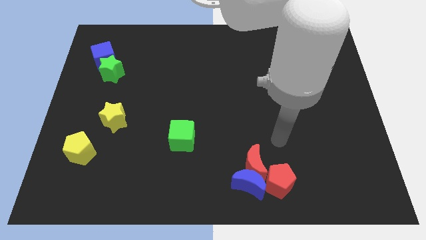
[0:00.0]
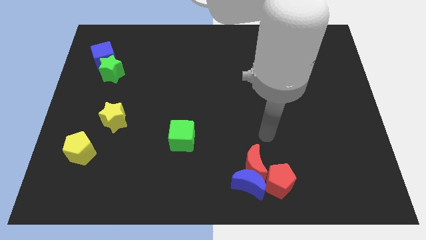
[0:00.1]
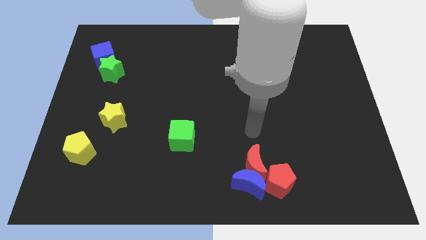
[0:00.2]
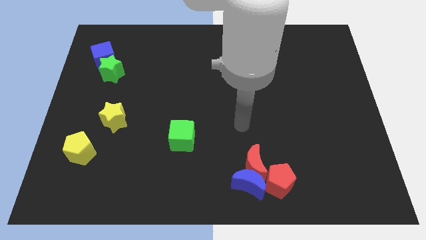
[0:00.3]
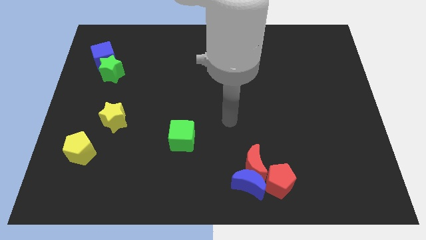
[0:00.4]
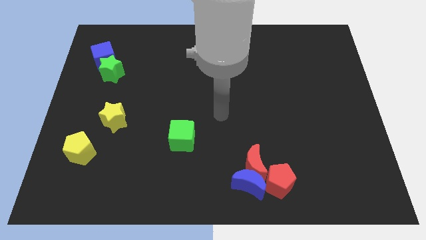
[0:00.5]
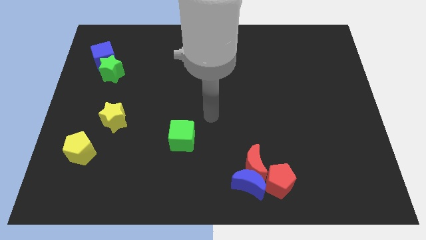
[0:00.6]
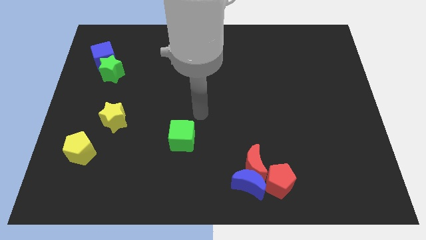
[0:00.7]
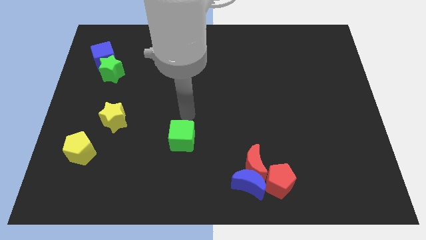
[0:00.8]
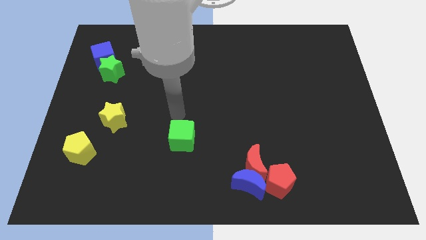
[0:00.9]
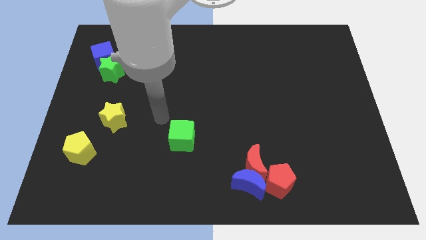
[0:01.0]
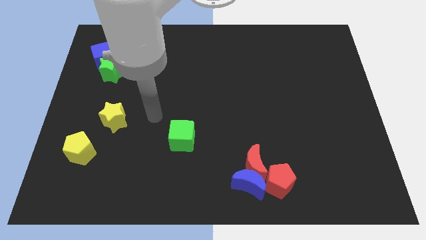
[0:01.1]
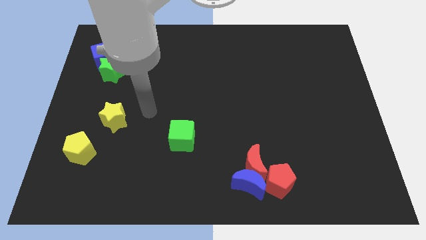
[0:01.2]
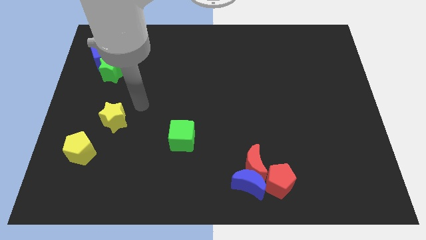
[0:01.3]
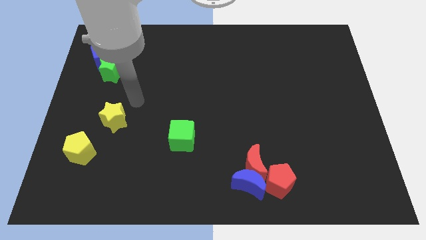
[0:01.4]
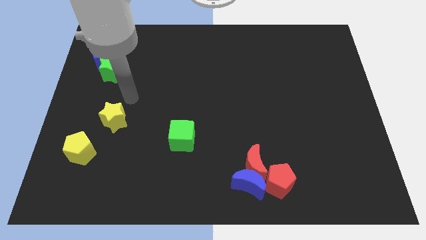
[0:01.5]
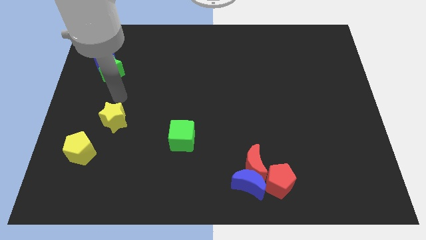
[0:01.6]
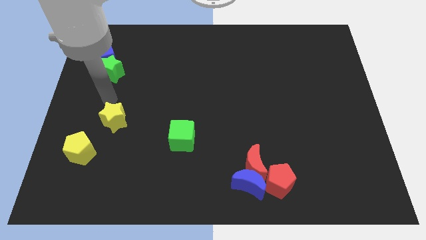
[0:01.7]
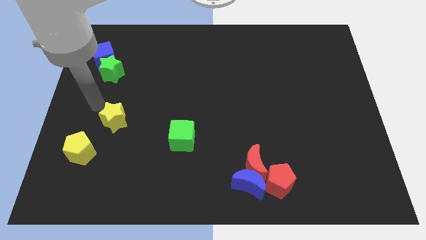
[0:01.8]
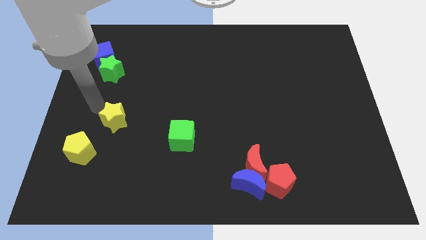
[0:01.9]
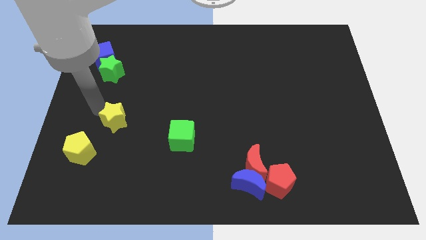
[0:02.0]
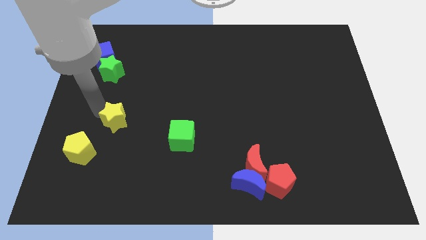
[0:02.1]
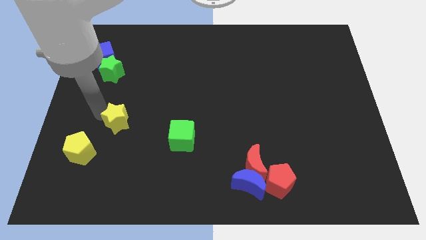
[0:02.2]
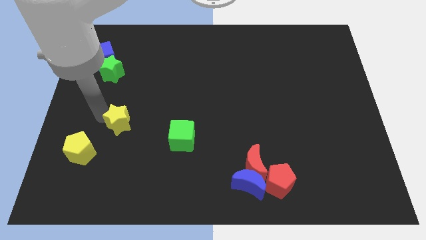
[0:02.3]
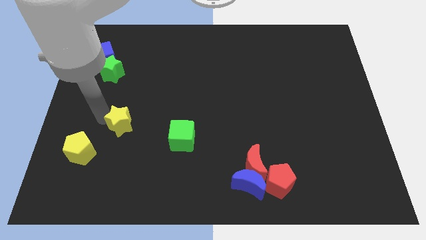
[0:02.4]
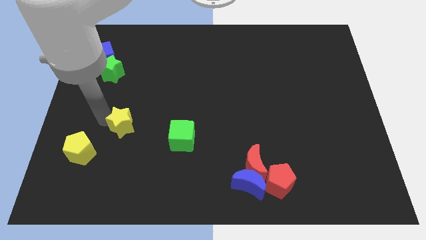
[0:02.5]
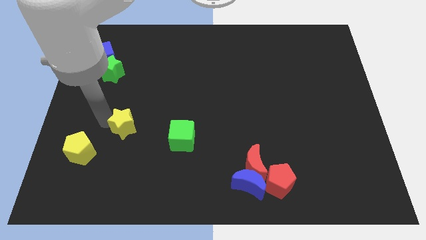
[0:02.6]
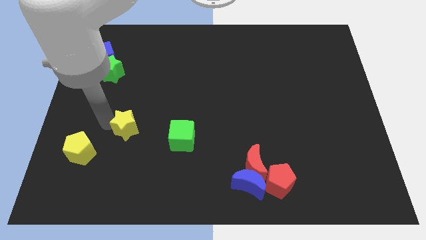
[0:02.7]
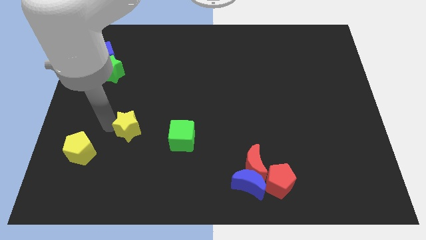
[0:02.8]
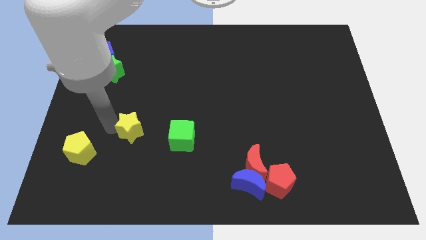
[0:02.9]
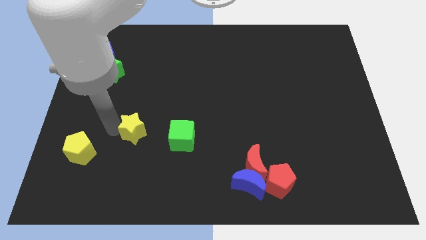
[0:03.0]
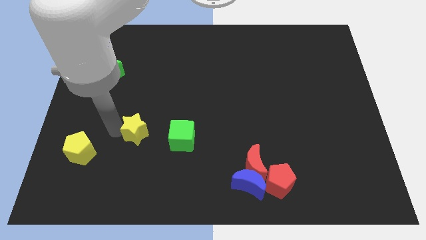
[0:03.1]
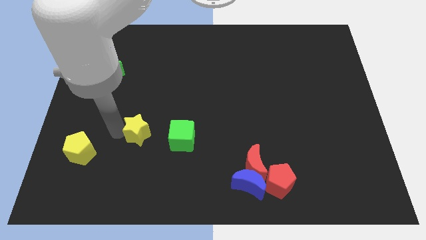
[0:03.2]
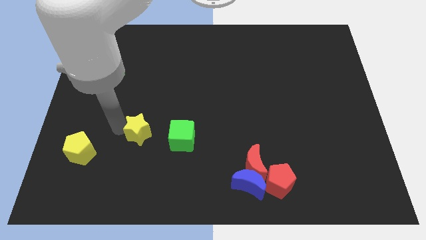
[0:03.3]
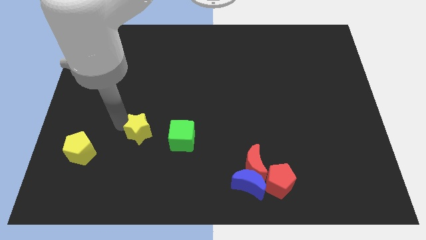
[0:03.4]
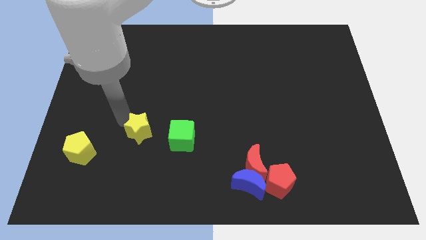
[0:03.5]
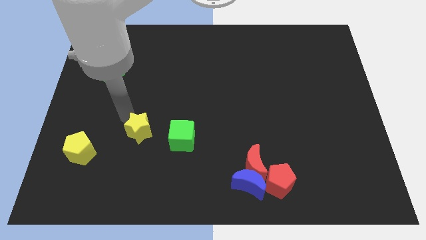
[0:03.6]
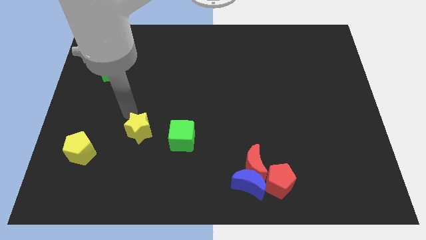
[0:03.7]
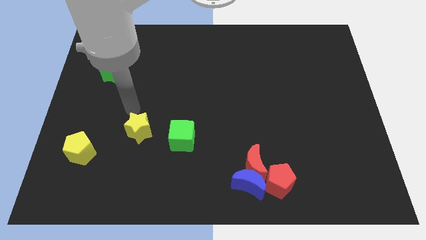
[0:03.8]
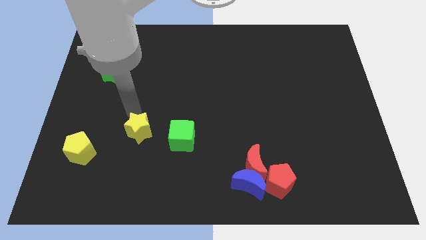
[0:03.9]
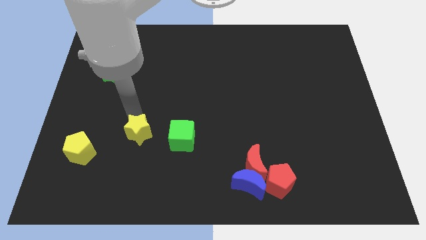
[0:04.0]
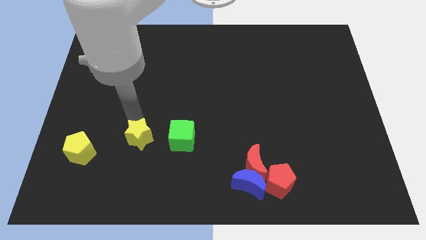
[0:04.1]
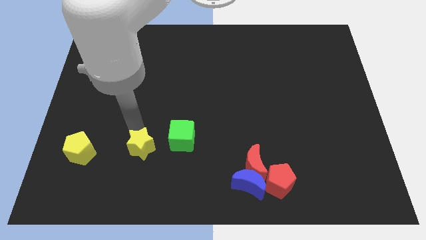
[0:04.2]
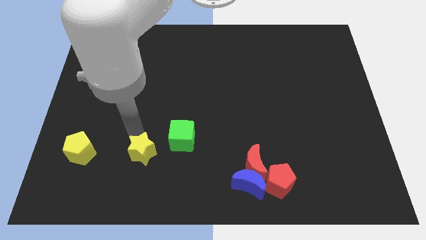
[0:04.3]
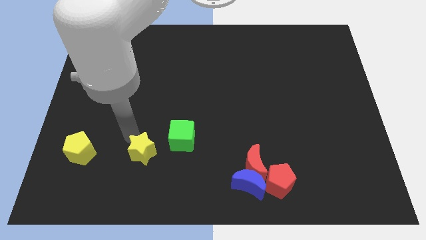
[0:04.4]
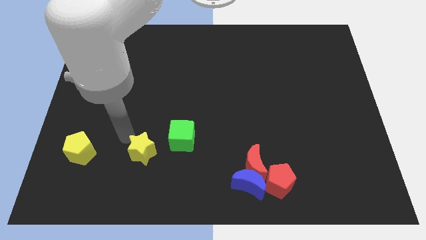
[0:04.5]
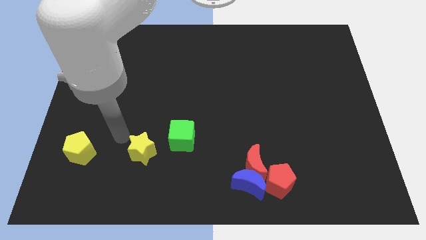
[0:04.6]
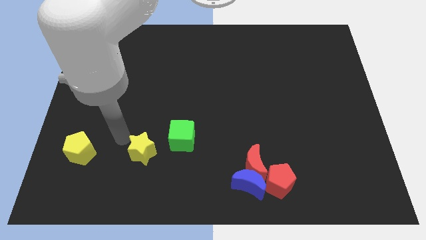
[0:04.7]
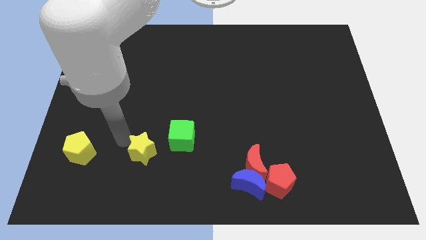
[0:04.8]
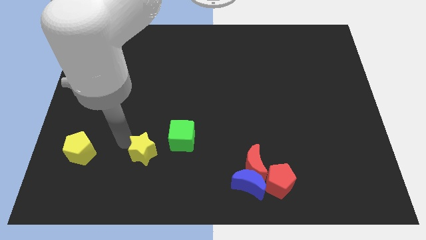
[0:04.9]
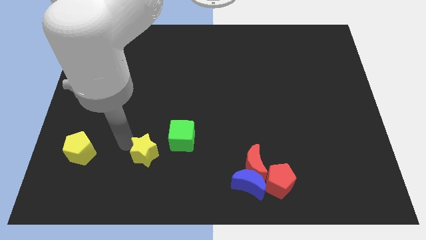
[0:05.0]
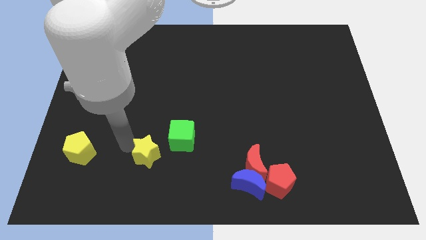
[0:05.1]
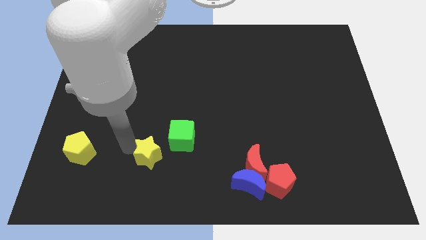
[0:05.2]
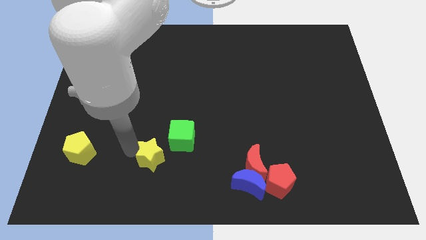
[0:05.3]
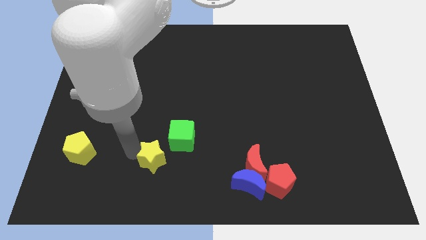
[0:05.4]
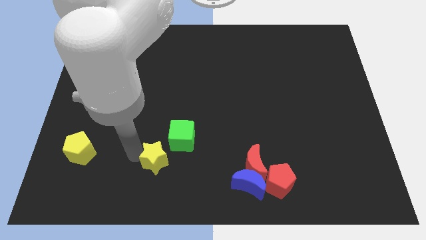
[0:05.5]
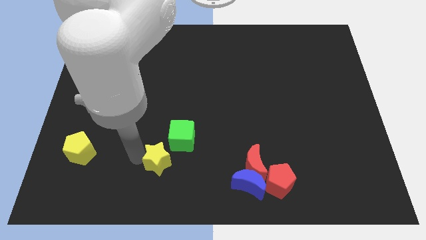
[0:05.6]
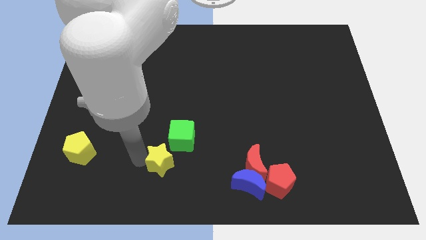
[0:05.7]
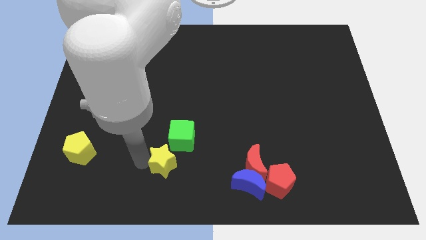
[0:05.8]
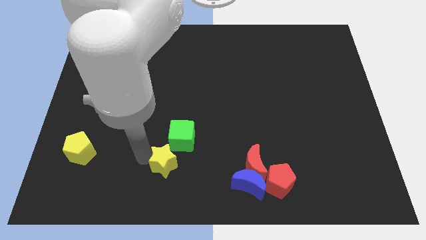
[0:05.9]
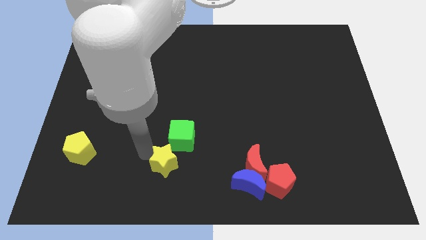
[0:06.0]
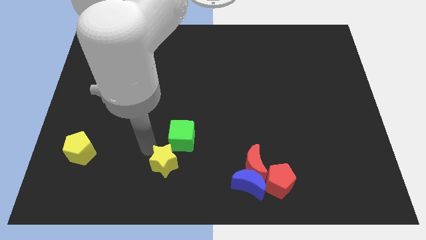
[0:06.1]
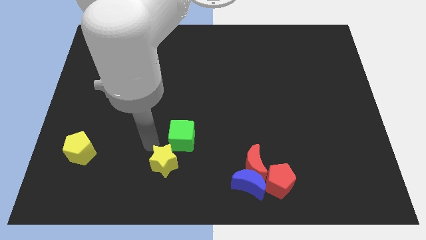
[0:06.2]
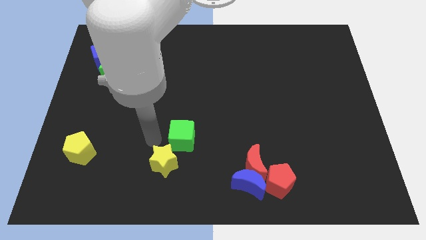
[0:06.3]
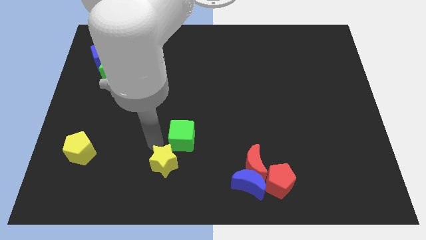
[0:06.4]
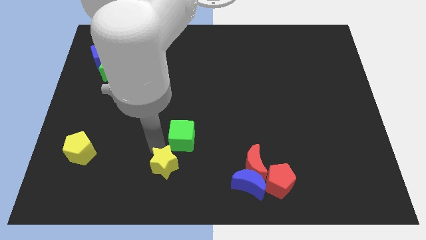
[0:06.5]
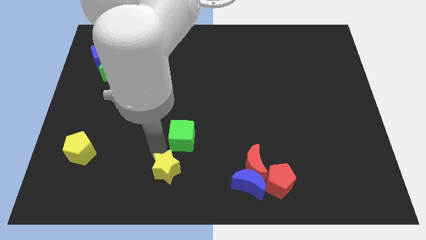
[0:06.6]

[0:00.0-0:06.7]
move the yellow star to the bottom side
